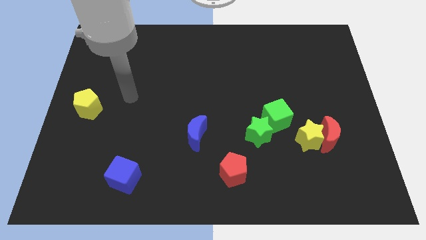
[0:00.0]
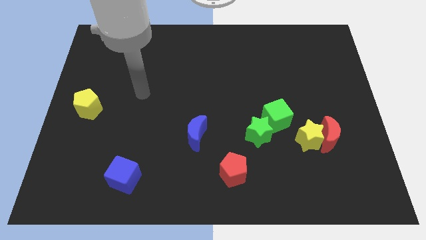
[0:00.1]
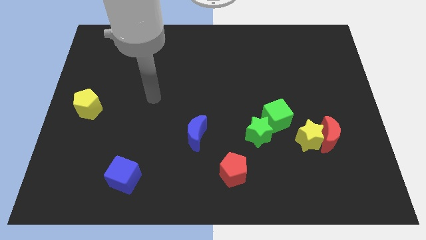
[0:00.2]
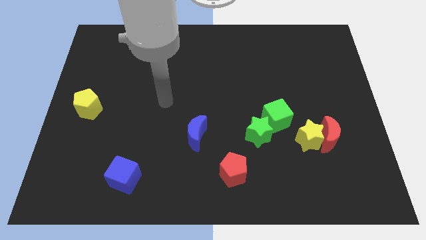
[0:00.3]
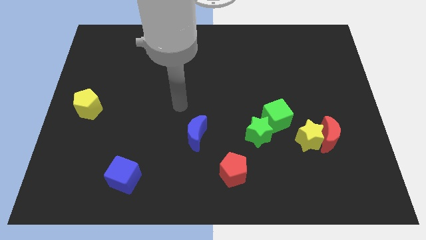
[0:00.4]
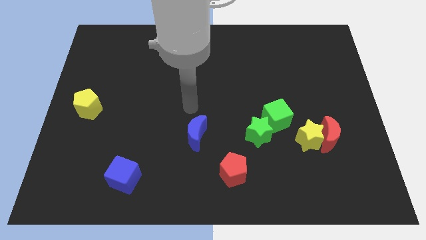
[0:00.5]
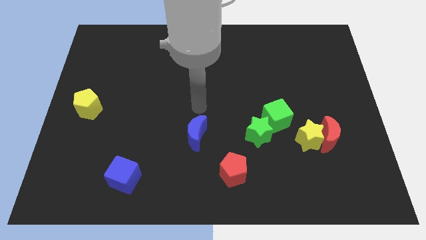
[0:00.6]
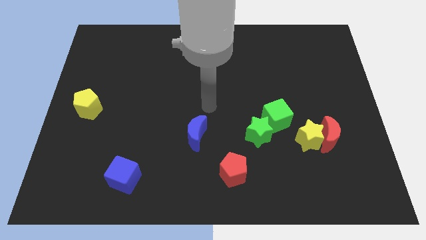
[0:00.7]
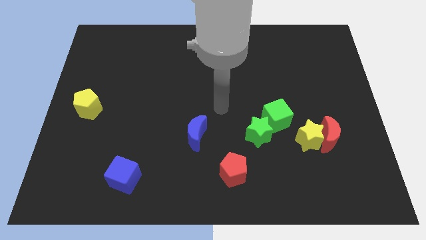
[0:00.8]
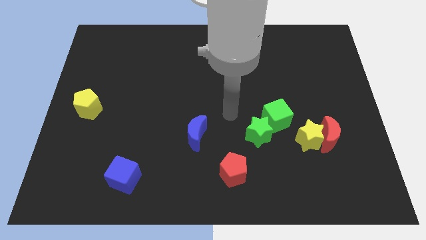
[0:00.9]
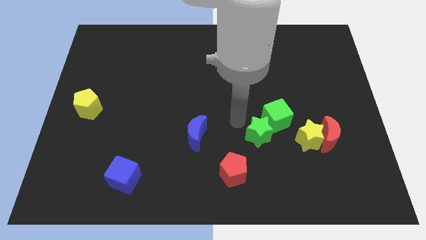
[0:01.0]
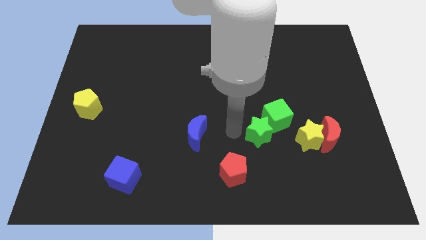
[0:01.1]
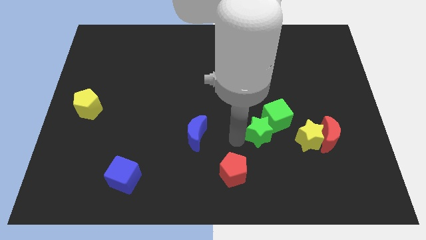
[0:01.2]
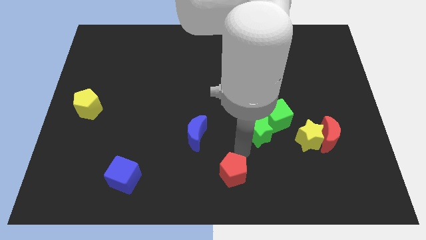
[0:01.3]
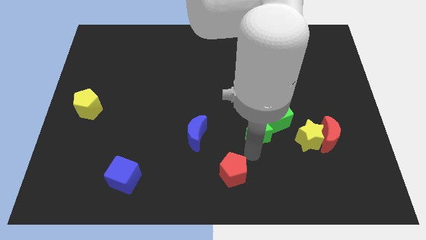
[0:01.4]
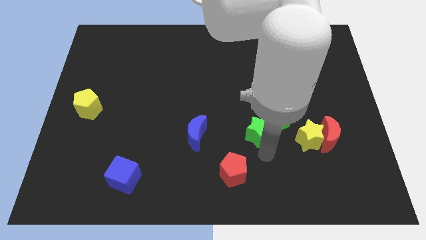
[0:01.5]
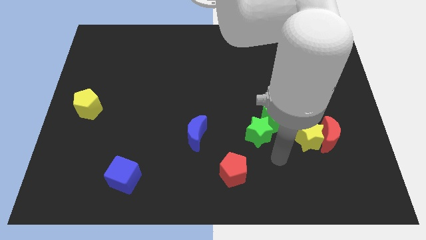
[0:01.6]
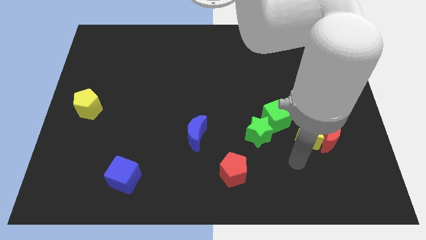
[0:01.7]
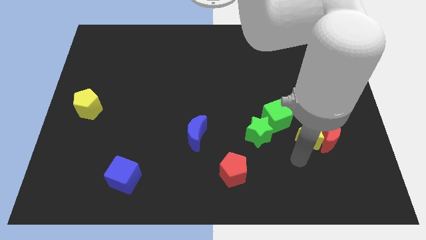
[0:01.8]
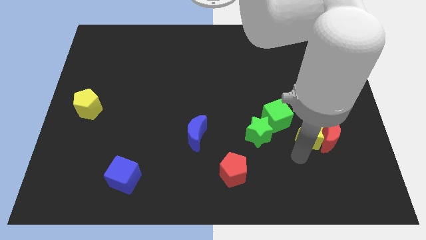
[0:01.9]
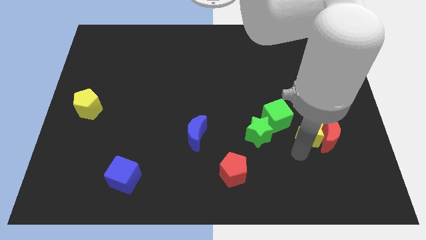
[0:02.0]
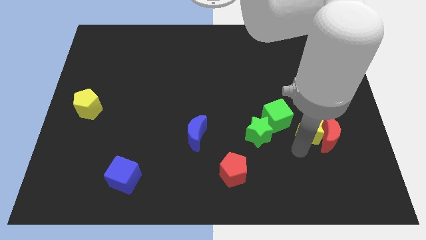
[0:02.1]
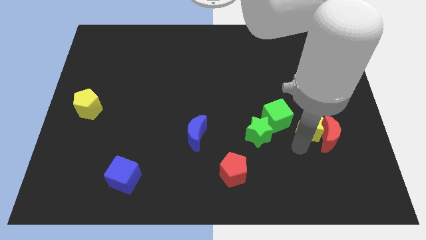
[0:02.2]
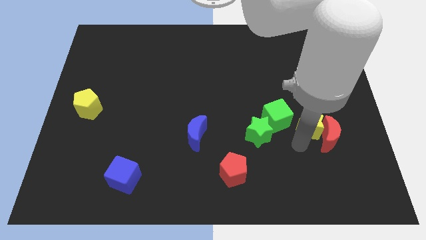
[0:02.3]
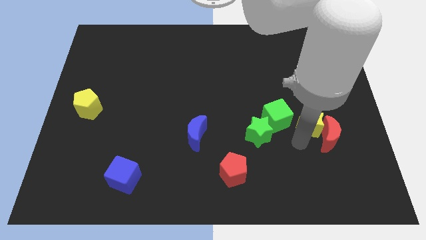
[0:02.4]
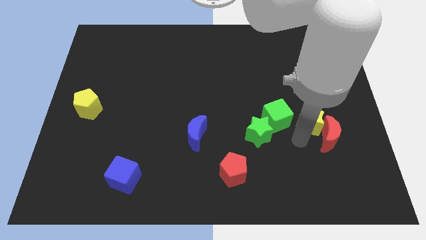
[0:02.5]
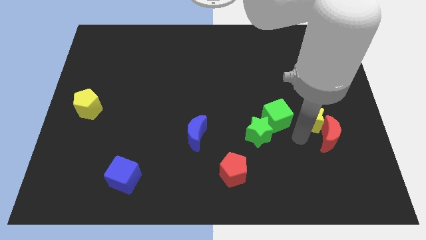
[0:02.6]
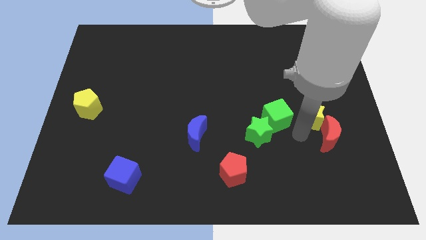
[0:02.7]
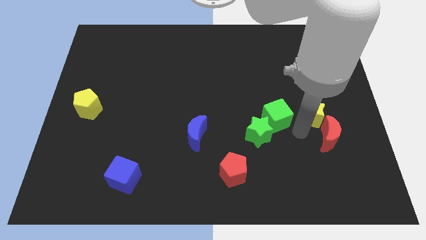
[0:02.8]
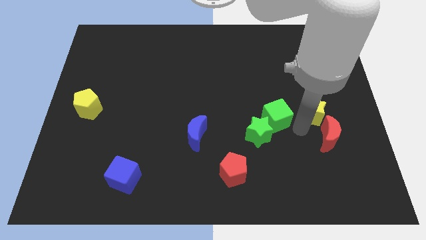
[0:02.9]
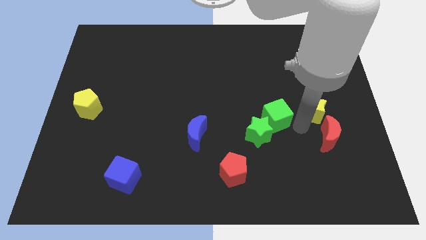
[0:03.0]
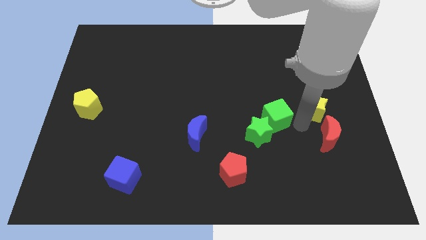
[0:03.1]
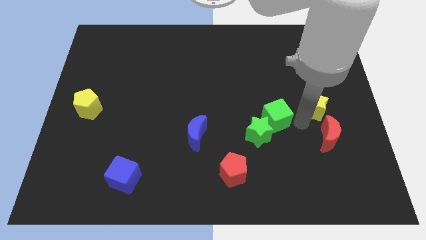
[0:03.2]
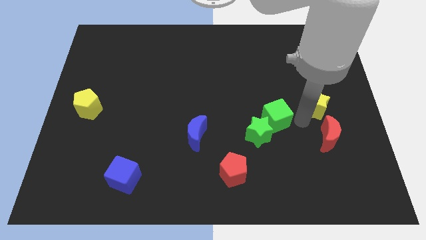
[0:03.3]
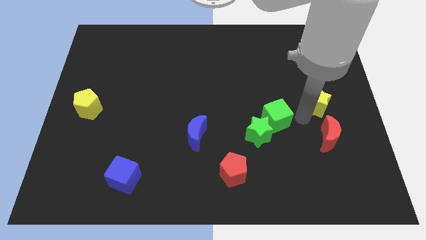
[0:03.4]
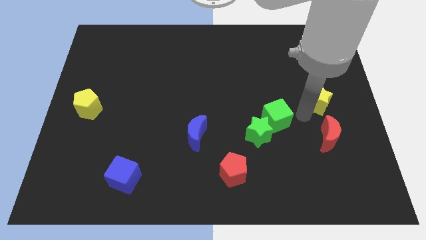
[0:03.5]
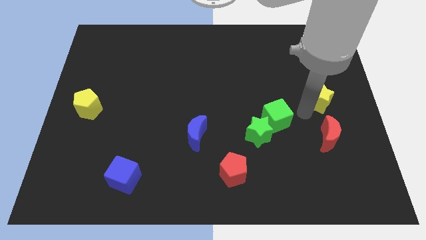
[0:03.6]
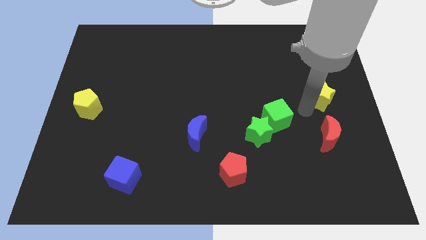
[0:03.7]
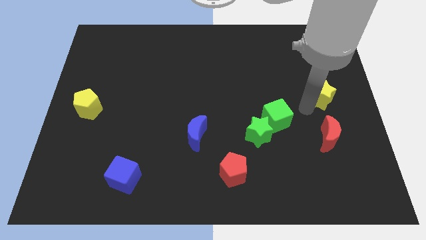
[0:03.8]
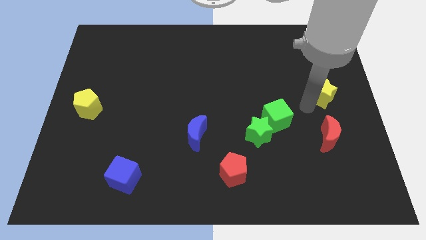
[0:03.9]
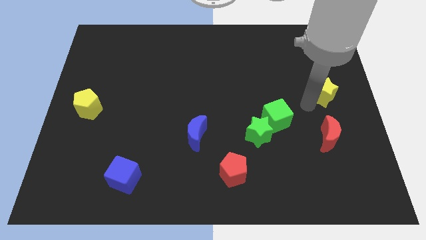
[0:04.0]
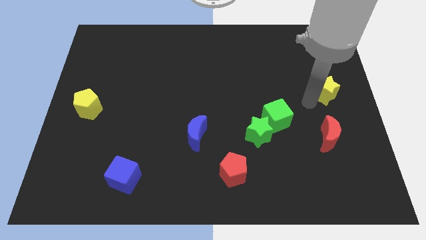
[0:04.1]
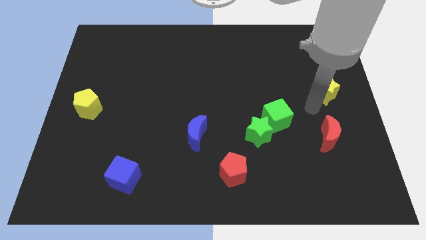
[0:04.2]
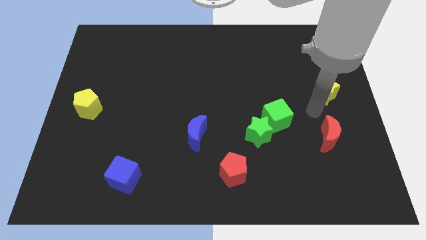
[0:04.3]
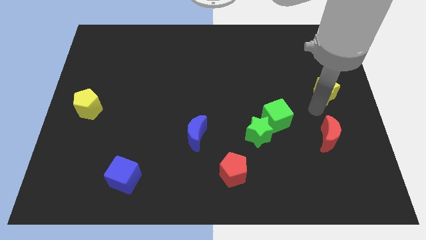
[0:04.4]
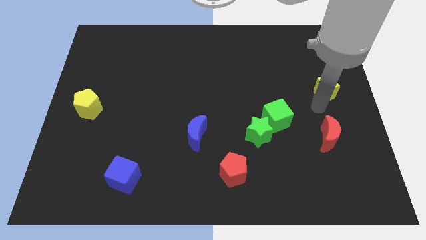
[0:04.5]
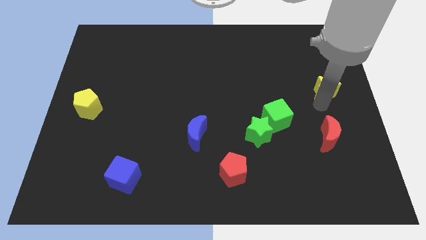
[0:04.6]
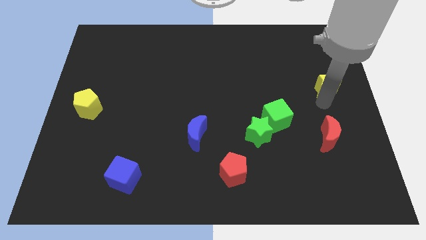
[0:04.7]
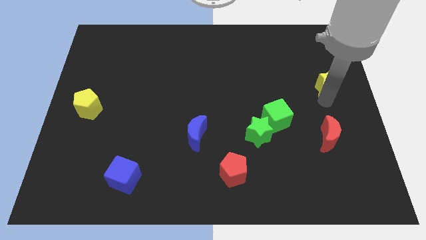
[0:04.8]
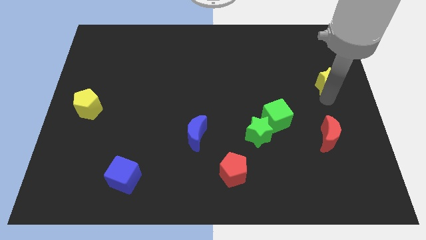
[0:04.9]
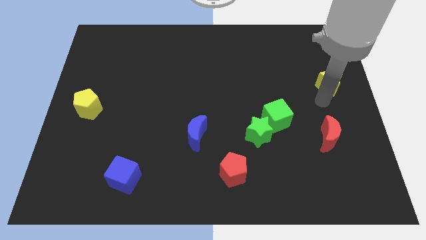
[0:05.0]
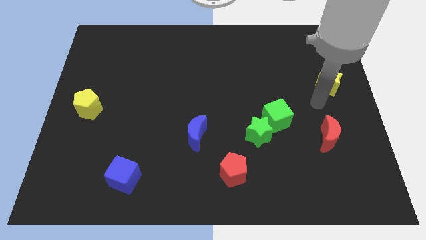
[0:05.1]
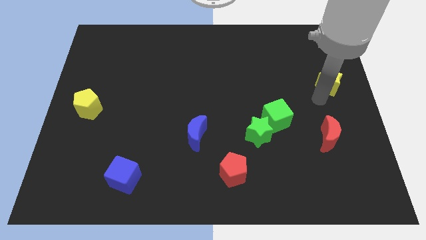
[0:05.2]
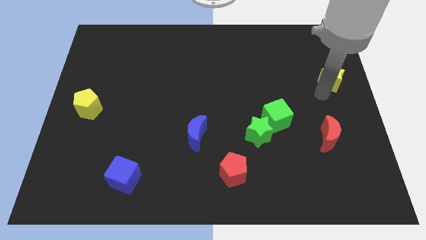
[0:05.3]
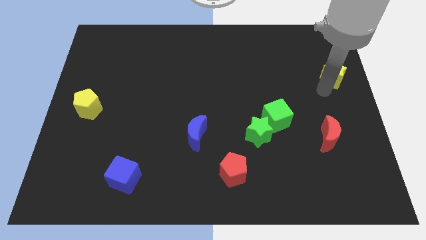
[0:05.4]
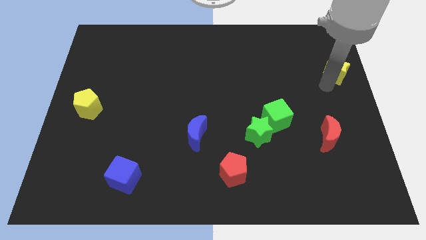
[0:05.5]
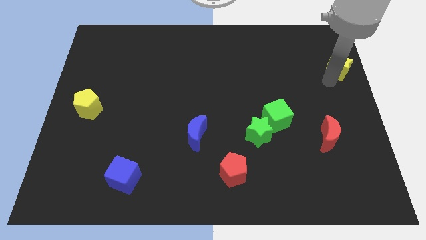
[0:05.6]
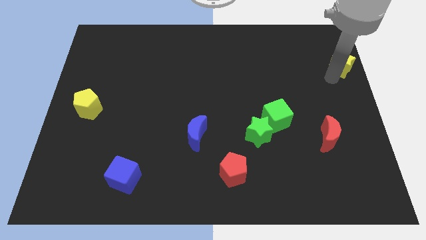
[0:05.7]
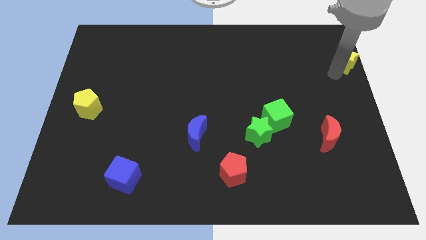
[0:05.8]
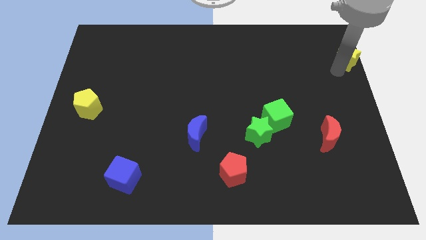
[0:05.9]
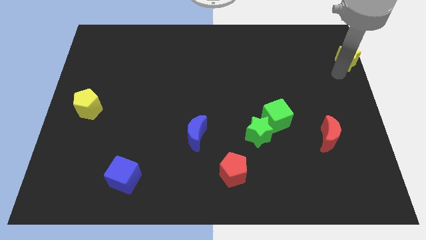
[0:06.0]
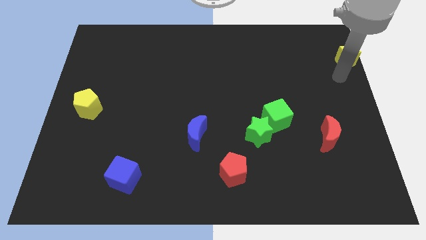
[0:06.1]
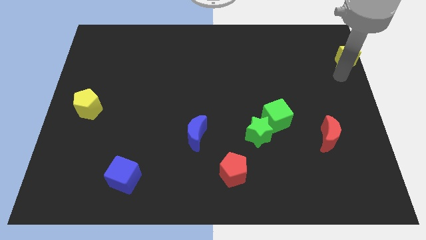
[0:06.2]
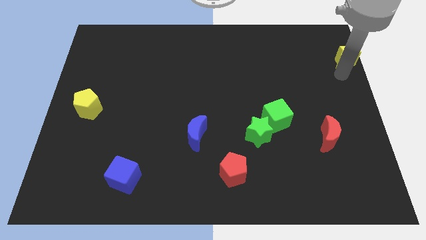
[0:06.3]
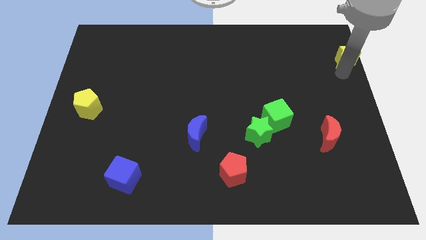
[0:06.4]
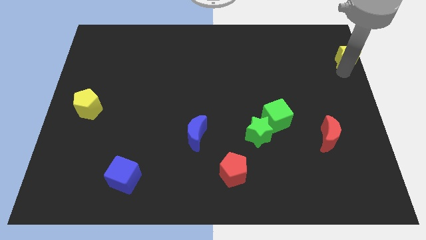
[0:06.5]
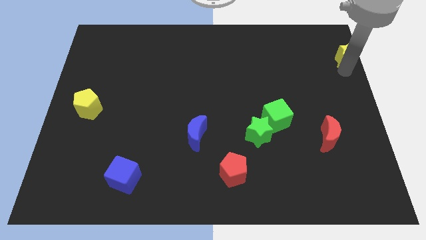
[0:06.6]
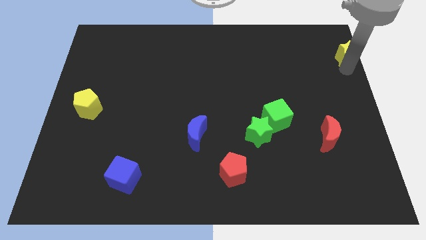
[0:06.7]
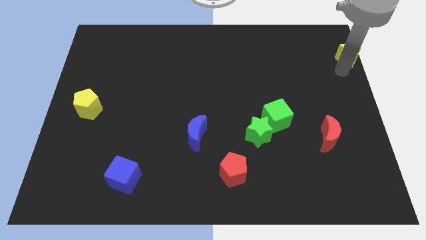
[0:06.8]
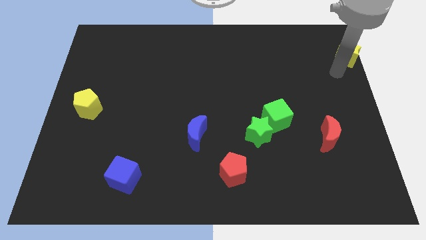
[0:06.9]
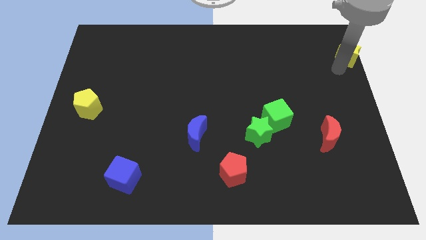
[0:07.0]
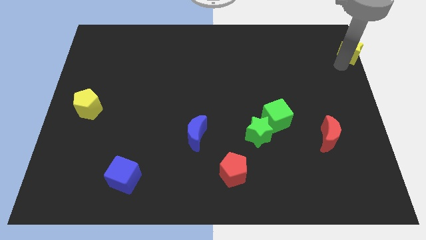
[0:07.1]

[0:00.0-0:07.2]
put the yellow star to the upper right corner
